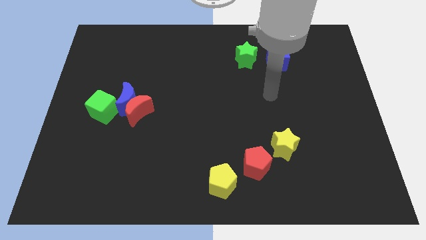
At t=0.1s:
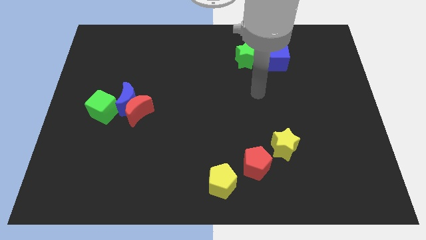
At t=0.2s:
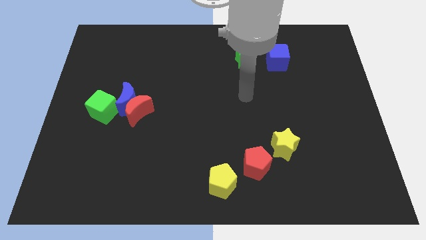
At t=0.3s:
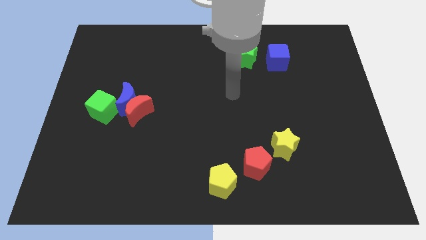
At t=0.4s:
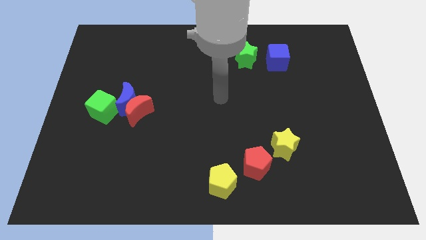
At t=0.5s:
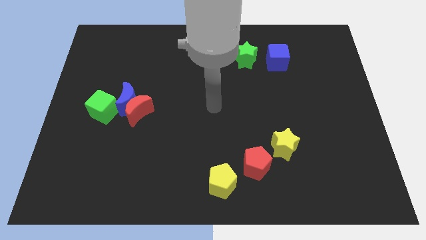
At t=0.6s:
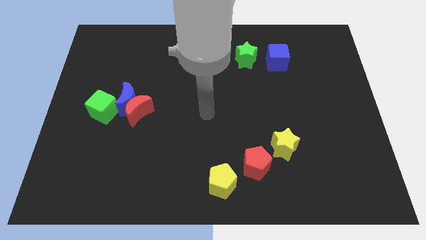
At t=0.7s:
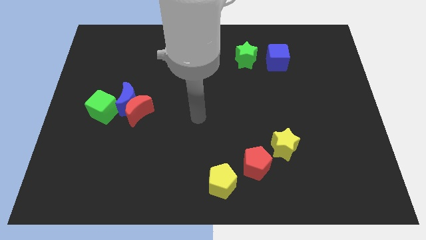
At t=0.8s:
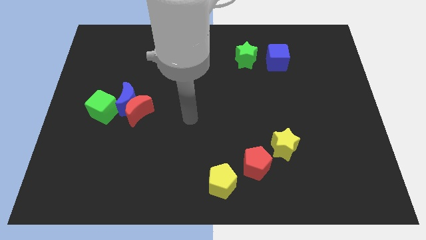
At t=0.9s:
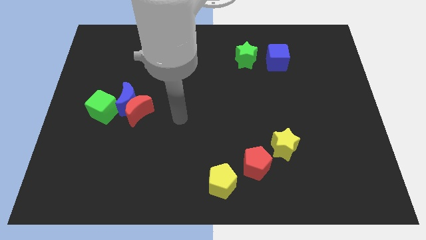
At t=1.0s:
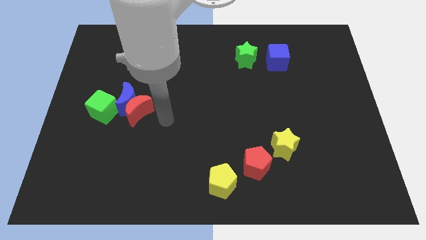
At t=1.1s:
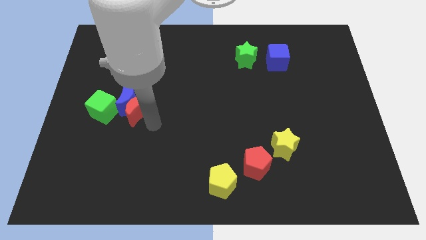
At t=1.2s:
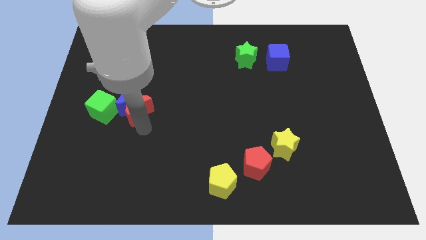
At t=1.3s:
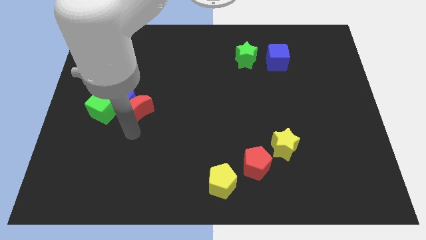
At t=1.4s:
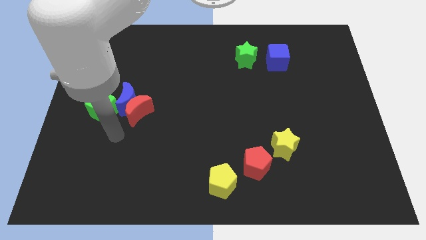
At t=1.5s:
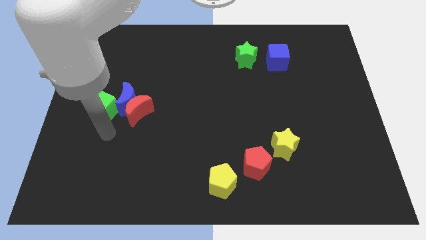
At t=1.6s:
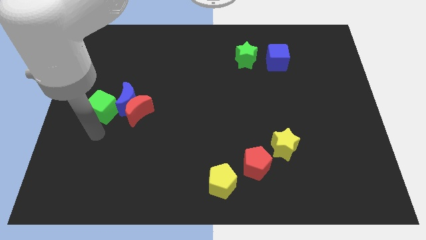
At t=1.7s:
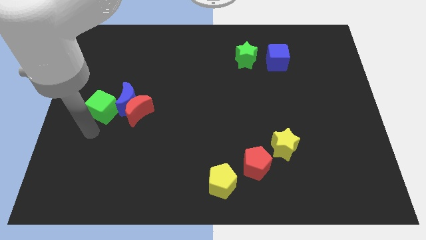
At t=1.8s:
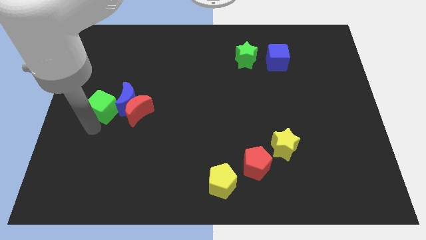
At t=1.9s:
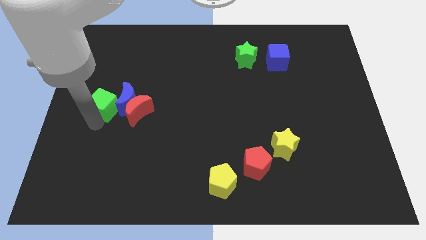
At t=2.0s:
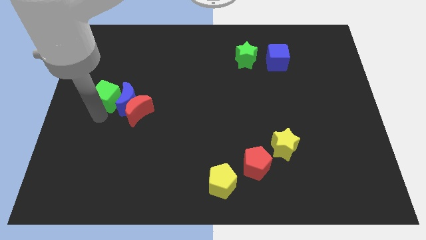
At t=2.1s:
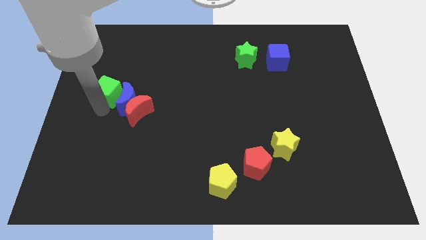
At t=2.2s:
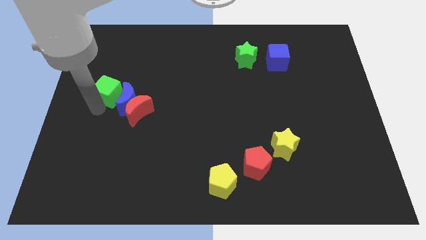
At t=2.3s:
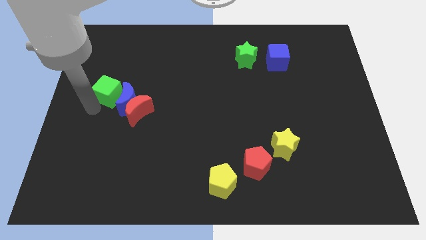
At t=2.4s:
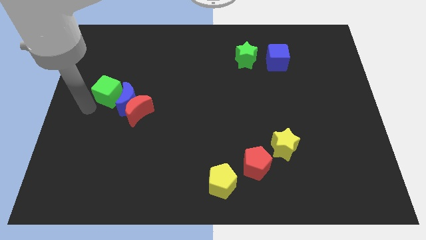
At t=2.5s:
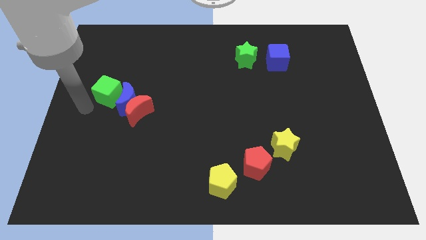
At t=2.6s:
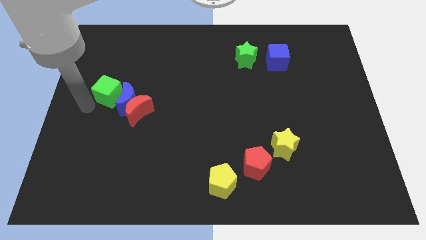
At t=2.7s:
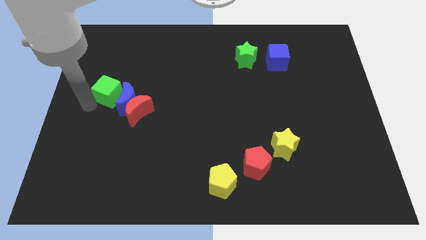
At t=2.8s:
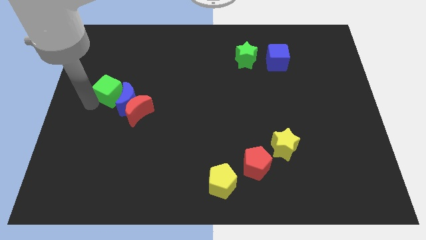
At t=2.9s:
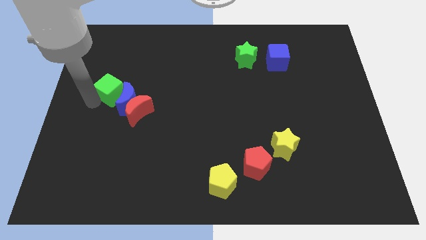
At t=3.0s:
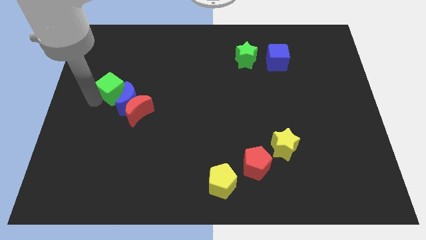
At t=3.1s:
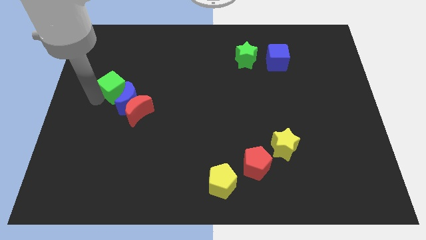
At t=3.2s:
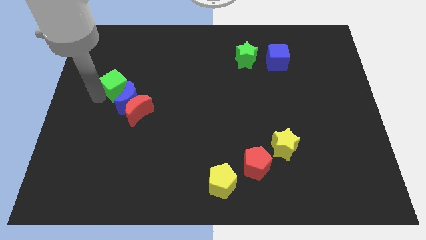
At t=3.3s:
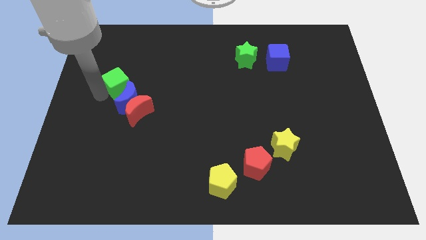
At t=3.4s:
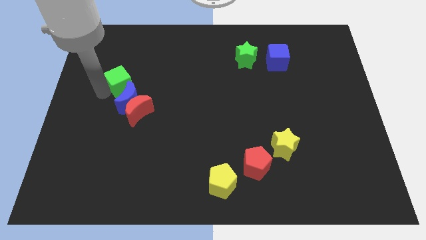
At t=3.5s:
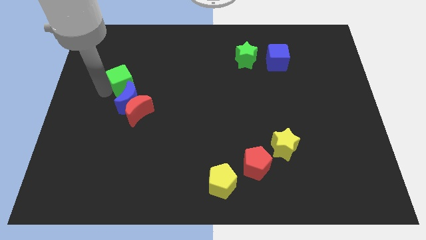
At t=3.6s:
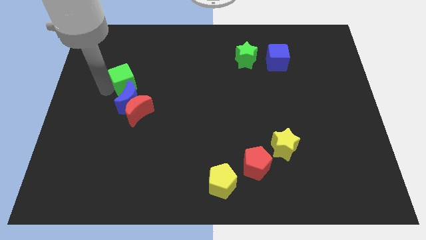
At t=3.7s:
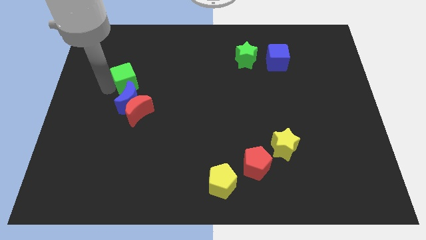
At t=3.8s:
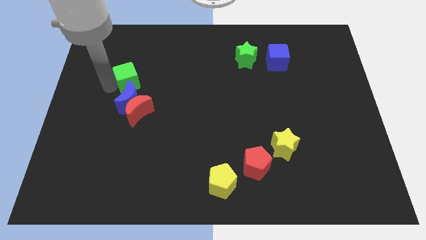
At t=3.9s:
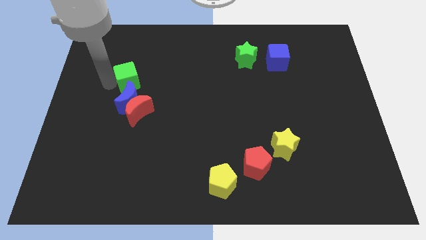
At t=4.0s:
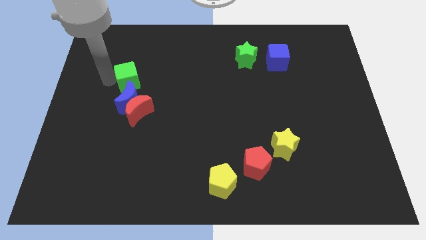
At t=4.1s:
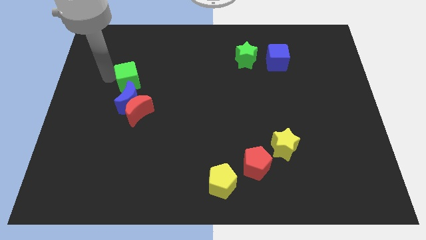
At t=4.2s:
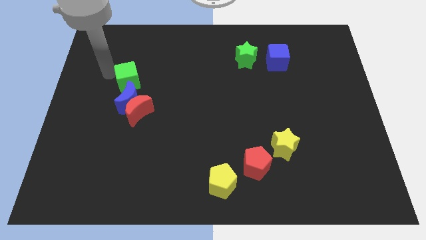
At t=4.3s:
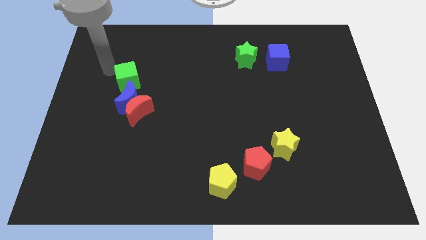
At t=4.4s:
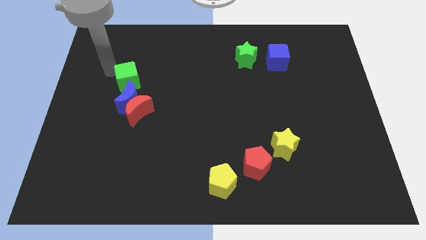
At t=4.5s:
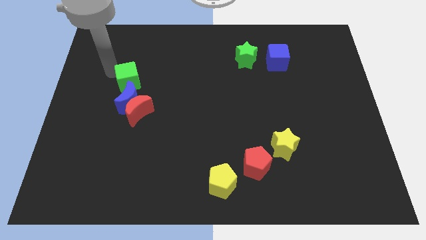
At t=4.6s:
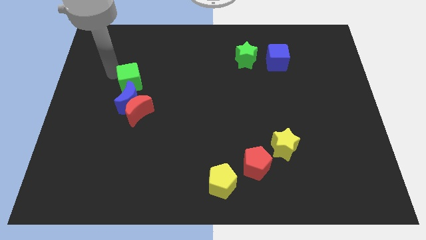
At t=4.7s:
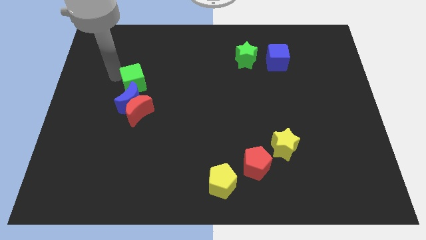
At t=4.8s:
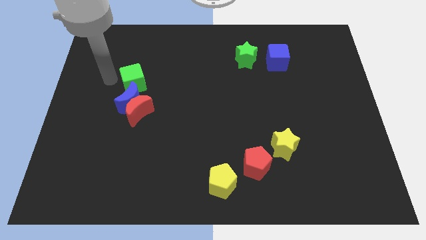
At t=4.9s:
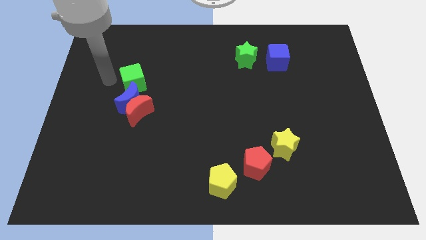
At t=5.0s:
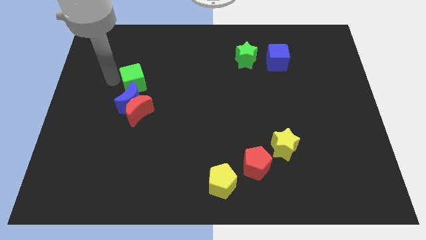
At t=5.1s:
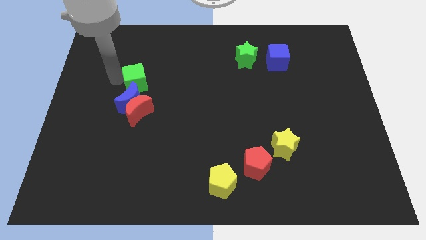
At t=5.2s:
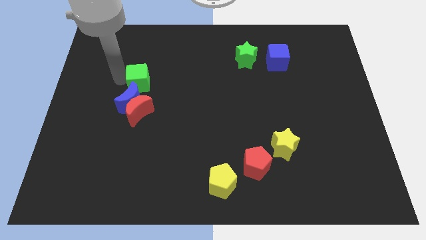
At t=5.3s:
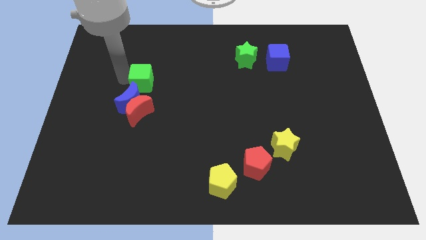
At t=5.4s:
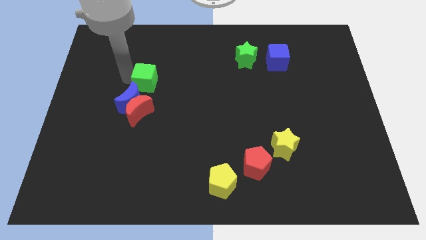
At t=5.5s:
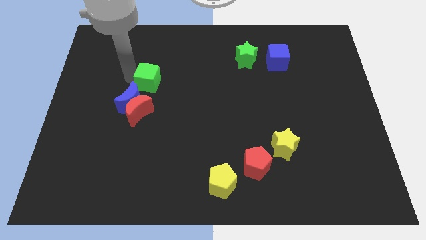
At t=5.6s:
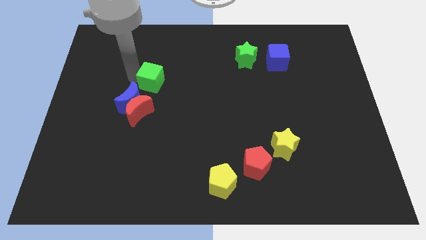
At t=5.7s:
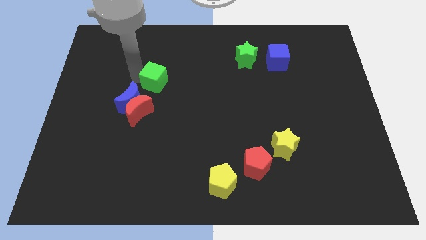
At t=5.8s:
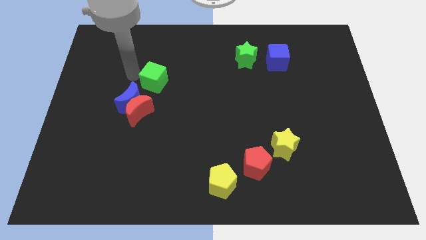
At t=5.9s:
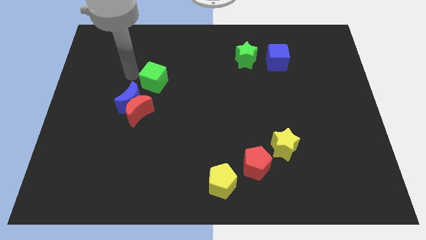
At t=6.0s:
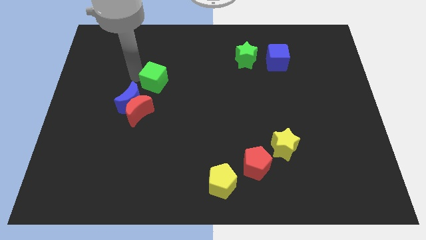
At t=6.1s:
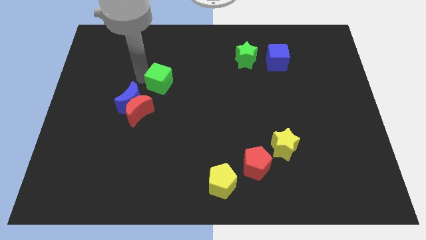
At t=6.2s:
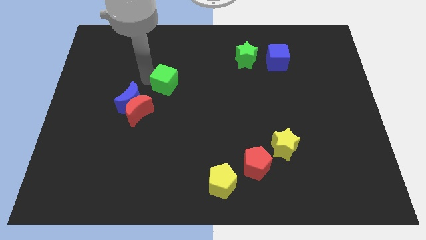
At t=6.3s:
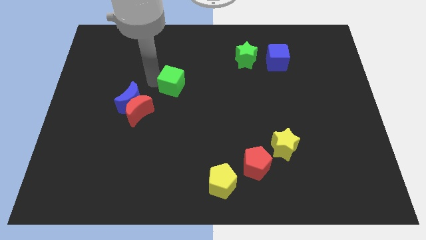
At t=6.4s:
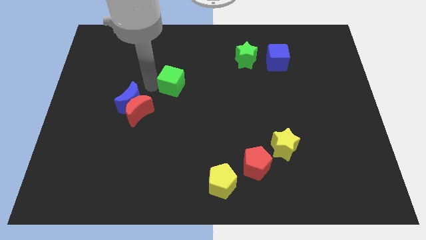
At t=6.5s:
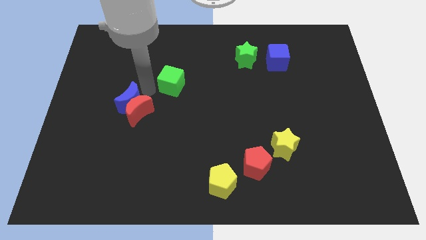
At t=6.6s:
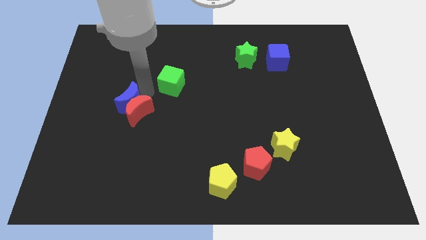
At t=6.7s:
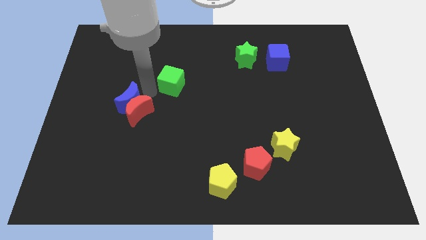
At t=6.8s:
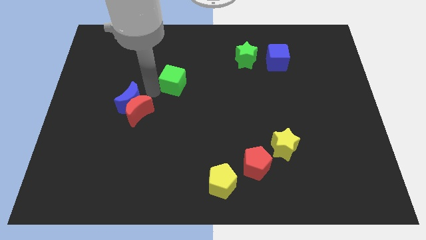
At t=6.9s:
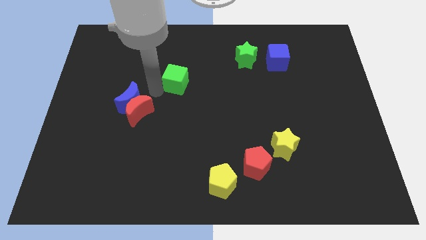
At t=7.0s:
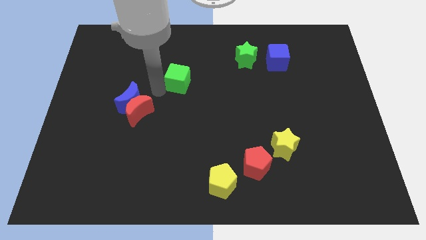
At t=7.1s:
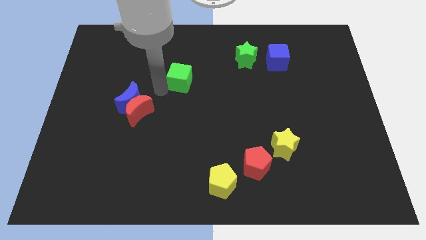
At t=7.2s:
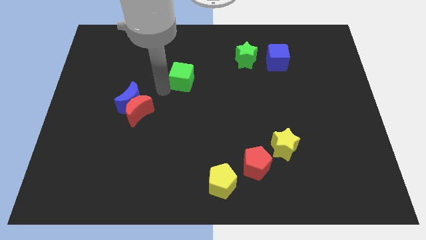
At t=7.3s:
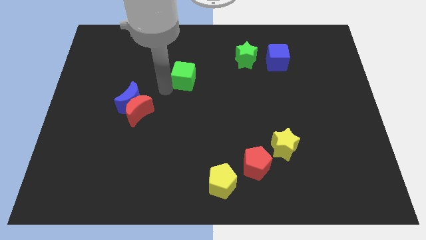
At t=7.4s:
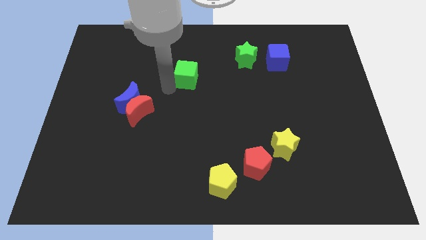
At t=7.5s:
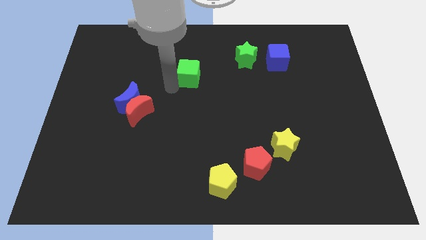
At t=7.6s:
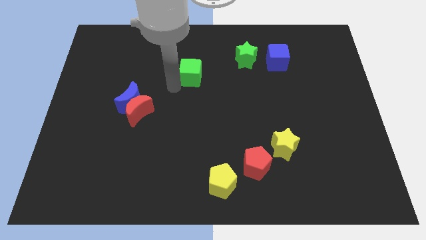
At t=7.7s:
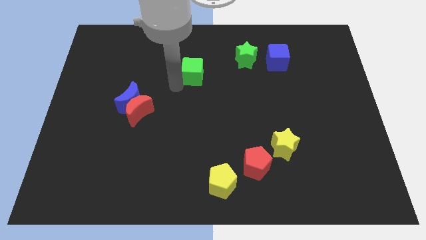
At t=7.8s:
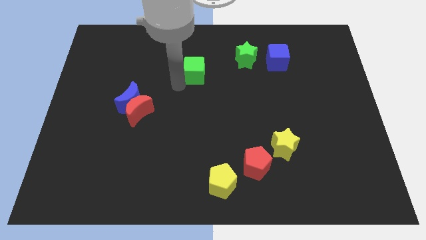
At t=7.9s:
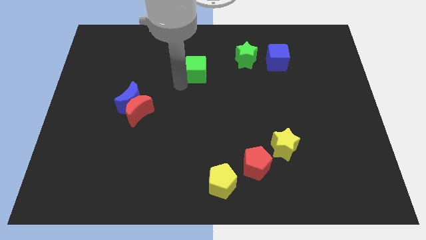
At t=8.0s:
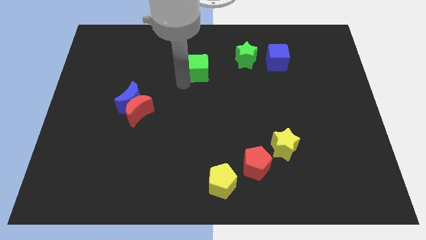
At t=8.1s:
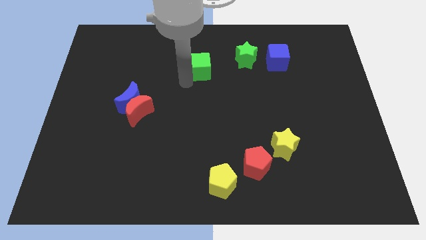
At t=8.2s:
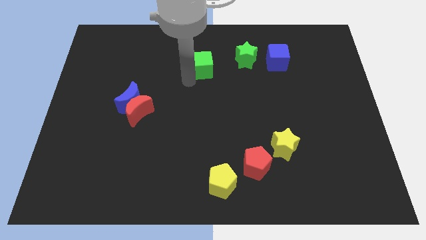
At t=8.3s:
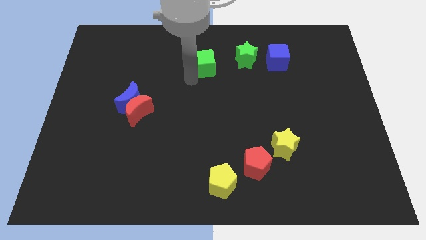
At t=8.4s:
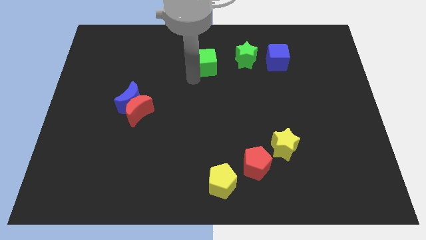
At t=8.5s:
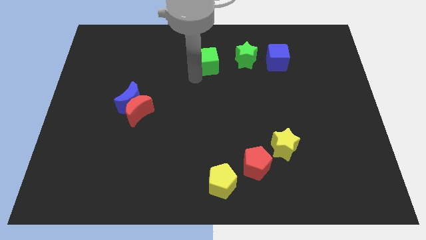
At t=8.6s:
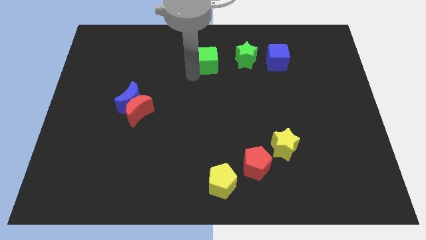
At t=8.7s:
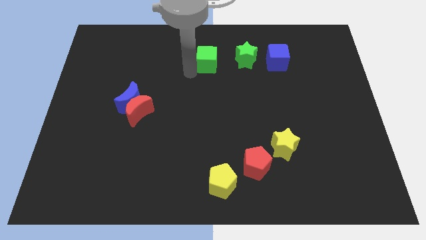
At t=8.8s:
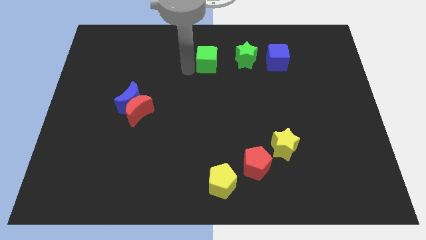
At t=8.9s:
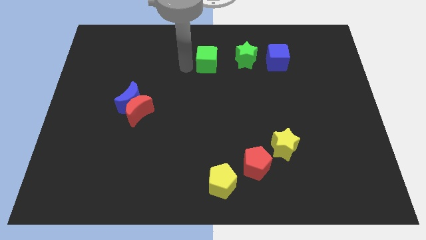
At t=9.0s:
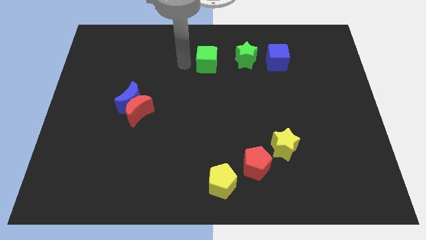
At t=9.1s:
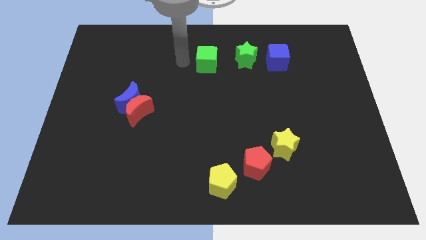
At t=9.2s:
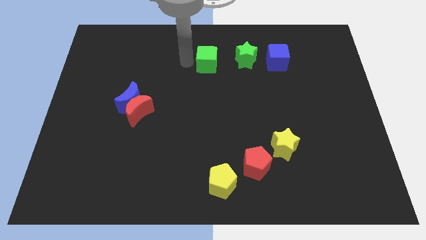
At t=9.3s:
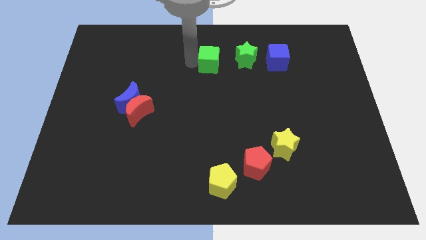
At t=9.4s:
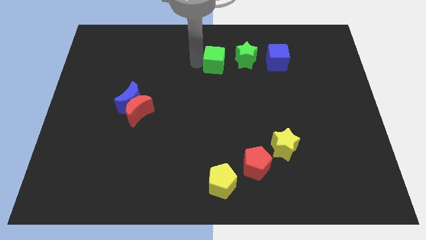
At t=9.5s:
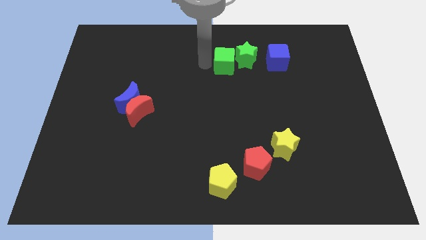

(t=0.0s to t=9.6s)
move the green cube close to the green star
